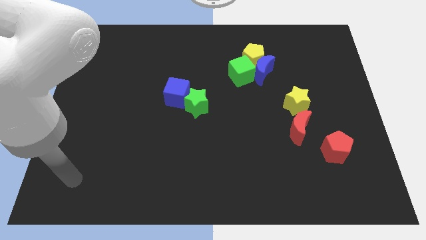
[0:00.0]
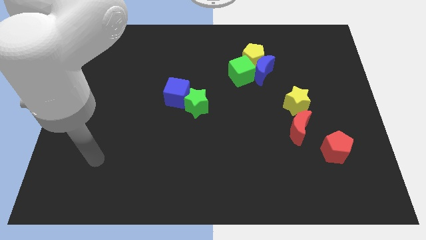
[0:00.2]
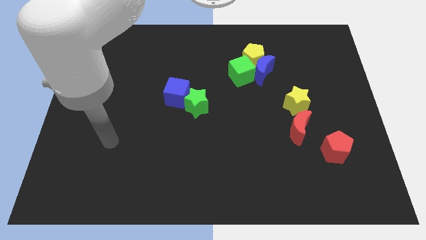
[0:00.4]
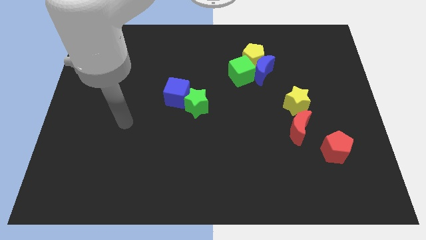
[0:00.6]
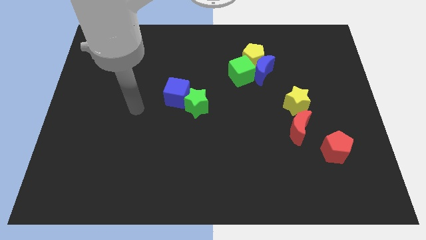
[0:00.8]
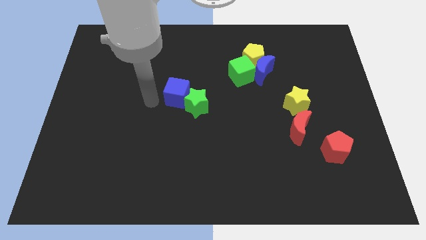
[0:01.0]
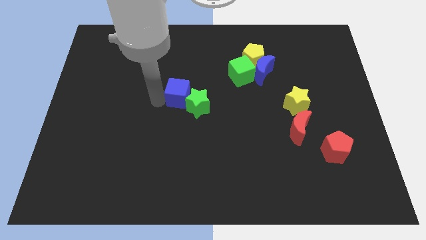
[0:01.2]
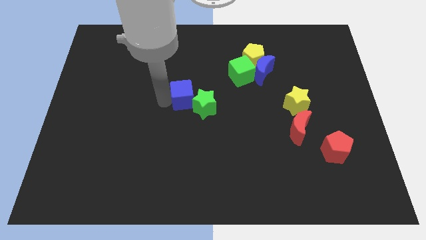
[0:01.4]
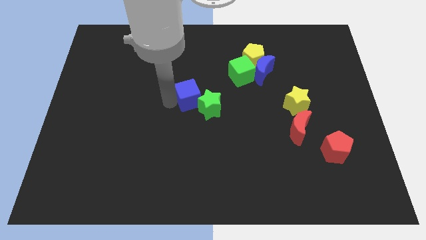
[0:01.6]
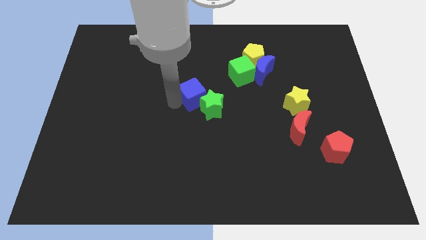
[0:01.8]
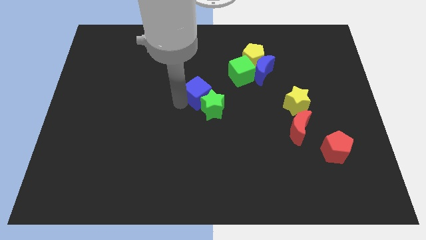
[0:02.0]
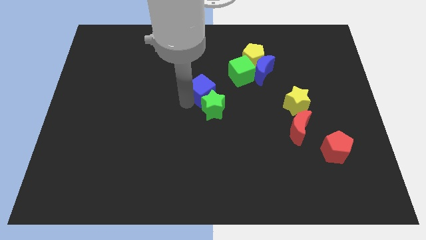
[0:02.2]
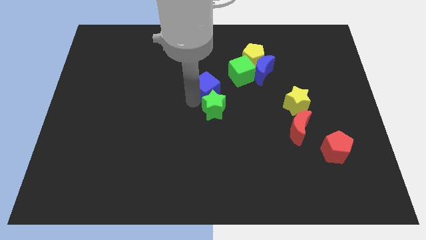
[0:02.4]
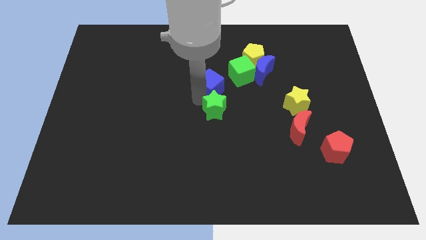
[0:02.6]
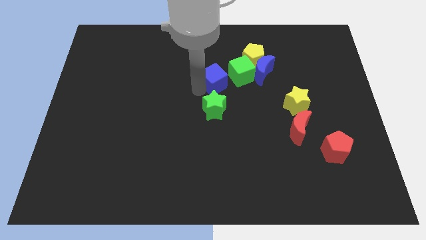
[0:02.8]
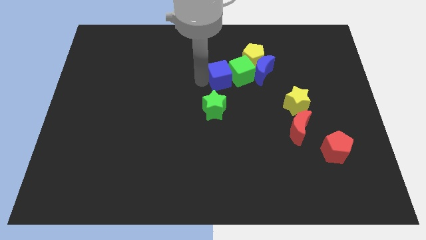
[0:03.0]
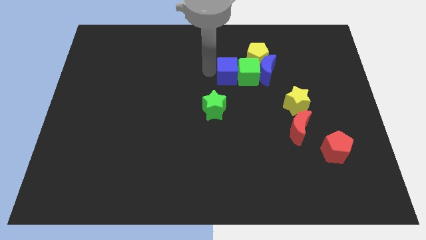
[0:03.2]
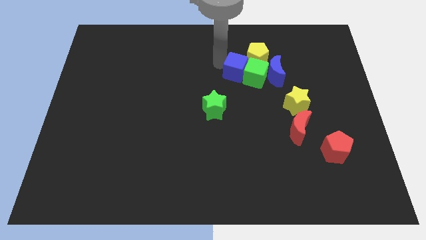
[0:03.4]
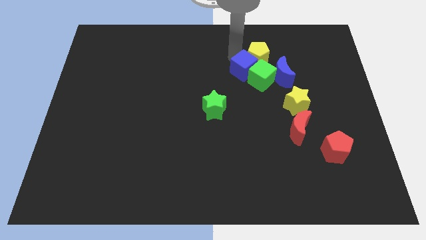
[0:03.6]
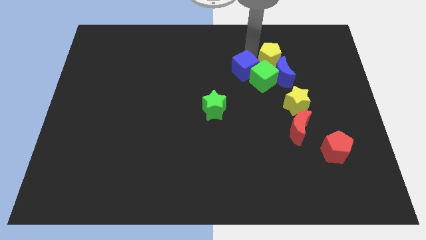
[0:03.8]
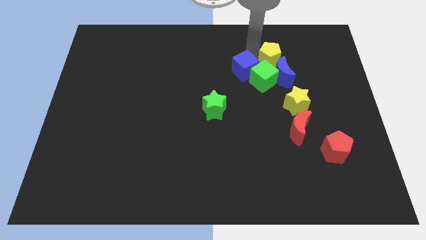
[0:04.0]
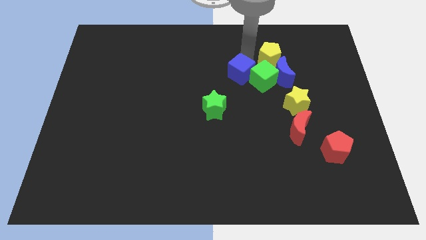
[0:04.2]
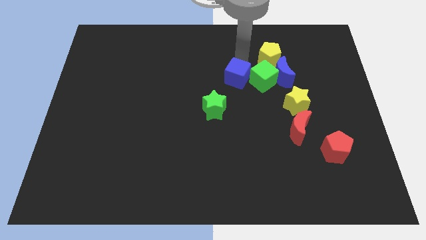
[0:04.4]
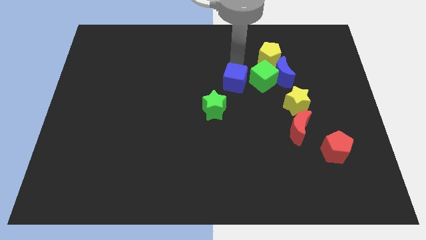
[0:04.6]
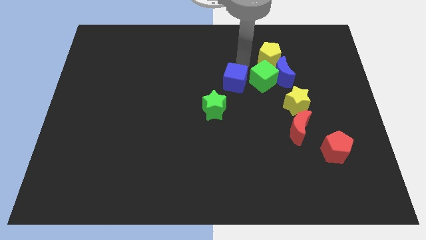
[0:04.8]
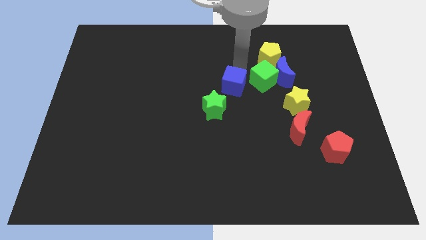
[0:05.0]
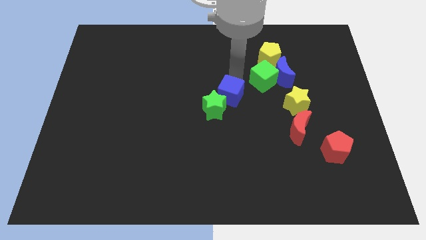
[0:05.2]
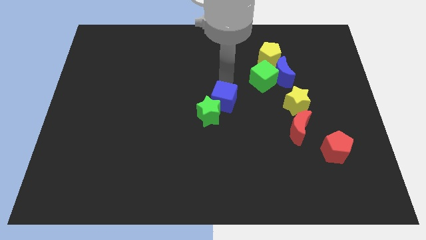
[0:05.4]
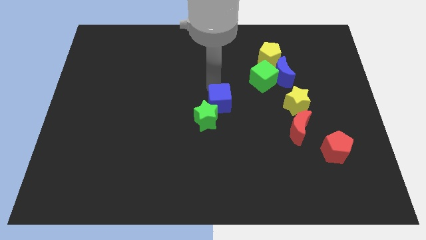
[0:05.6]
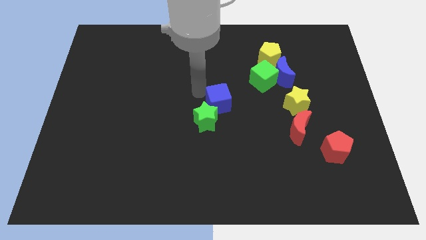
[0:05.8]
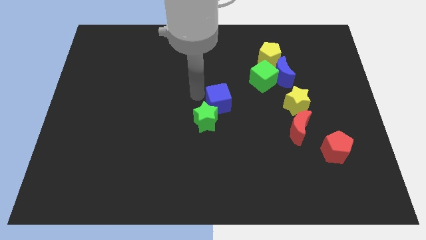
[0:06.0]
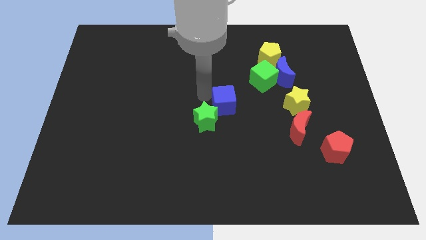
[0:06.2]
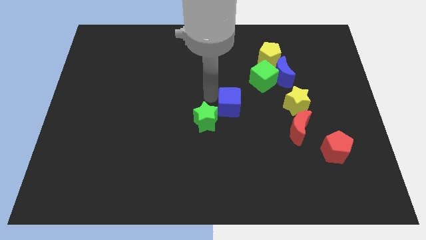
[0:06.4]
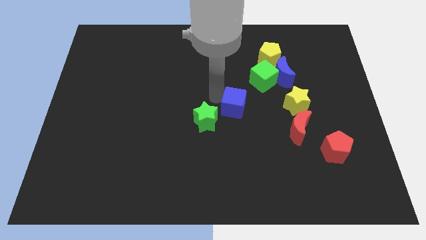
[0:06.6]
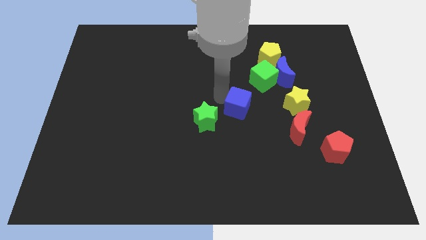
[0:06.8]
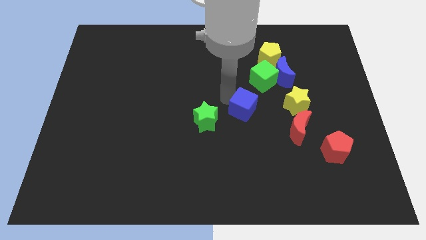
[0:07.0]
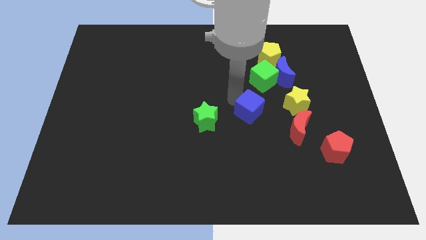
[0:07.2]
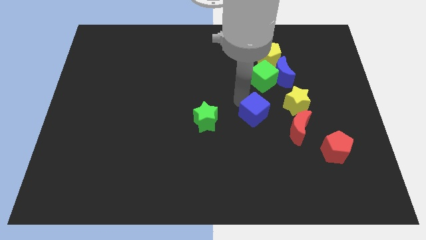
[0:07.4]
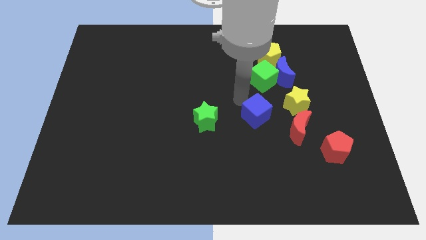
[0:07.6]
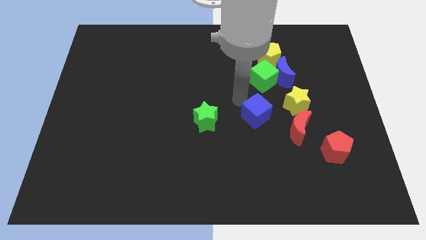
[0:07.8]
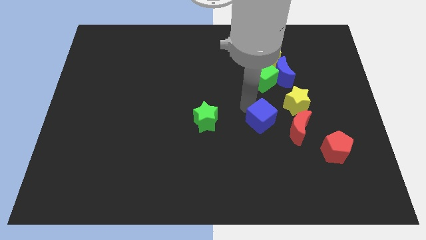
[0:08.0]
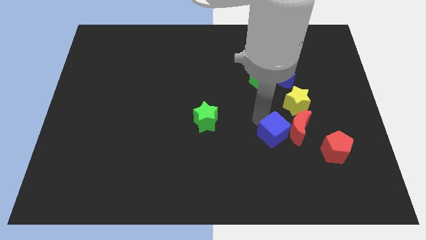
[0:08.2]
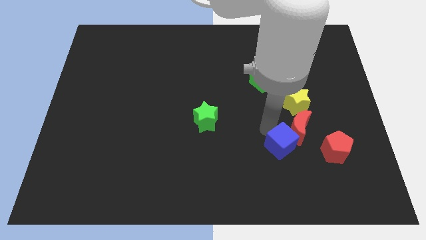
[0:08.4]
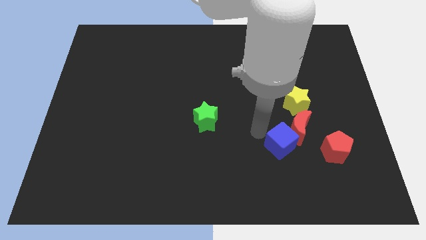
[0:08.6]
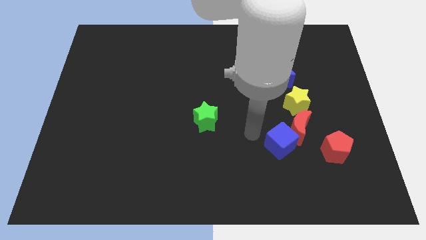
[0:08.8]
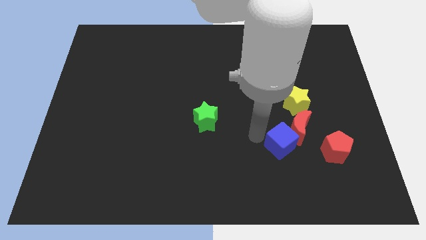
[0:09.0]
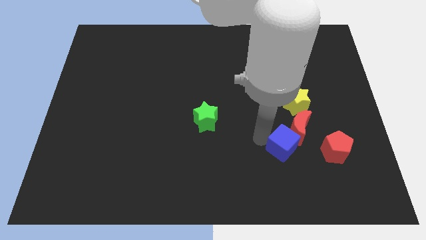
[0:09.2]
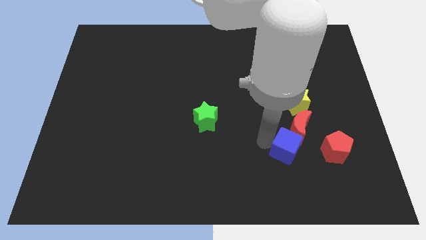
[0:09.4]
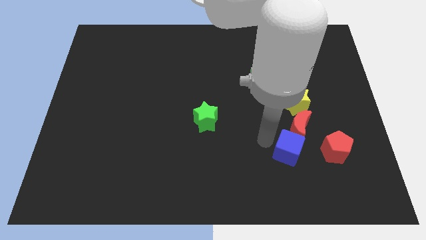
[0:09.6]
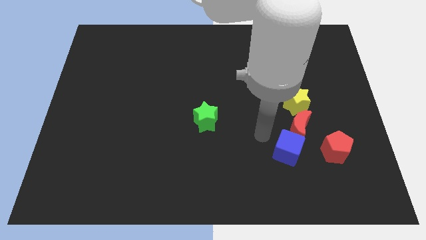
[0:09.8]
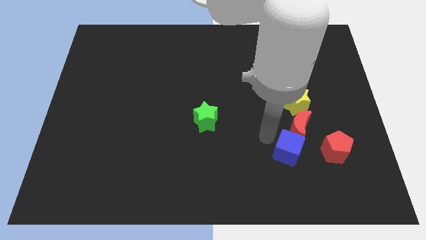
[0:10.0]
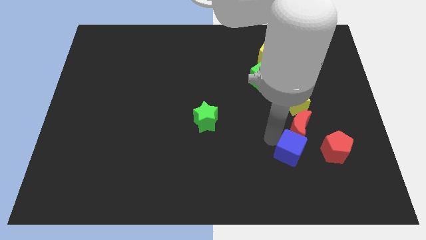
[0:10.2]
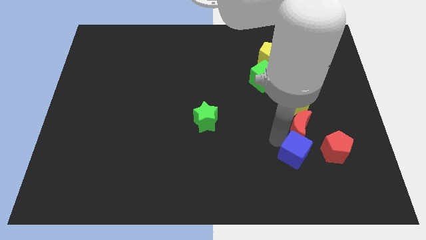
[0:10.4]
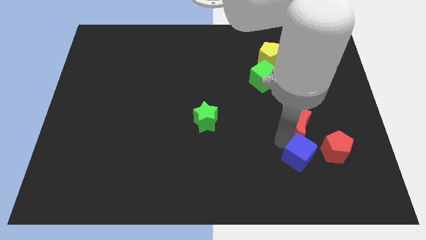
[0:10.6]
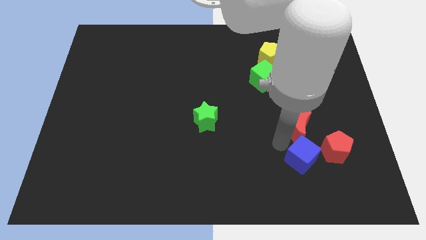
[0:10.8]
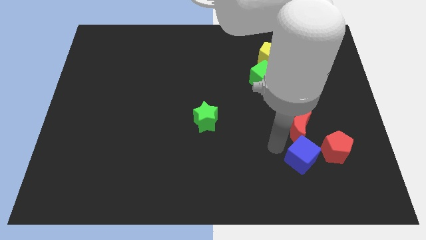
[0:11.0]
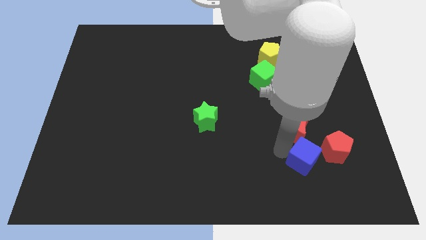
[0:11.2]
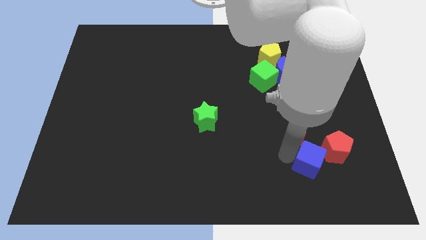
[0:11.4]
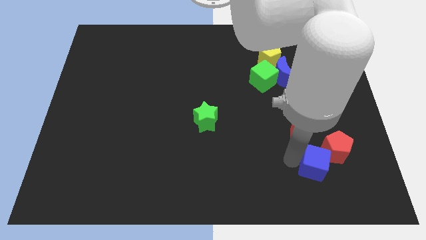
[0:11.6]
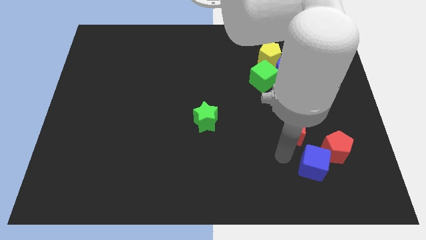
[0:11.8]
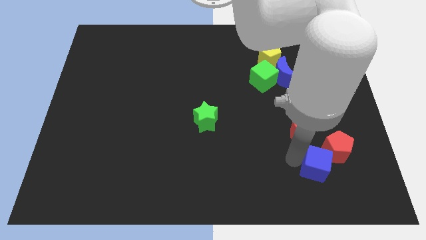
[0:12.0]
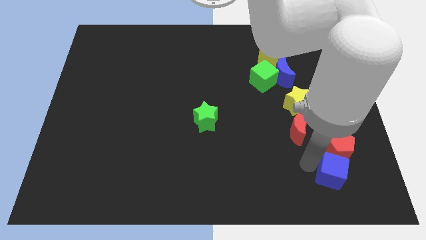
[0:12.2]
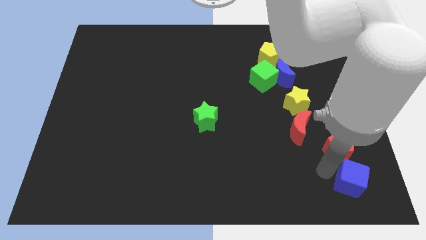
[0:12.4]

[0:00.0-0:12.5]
push the blue cube to the bottom right corner

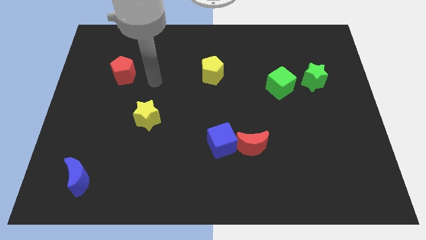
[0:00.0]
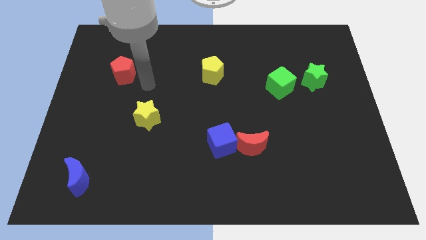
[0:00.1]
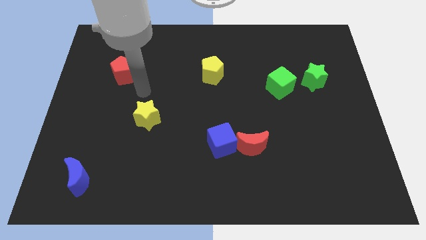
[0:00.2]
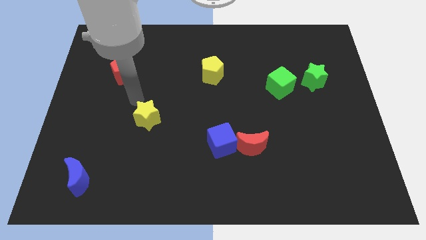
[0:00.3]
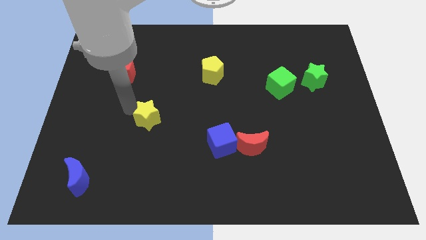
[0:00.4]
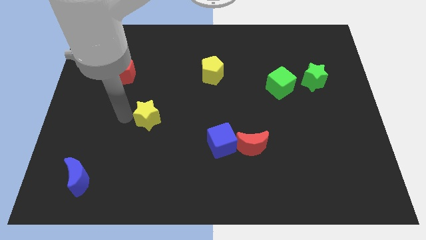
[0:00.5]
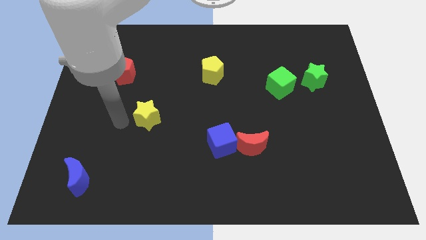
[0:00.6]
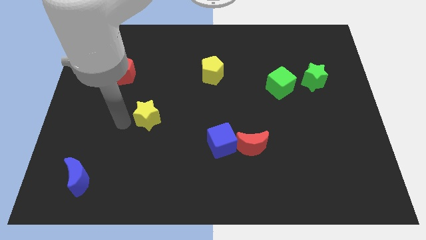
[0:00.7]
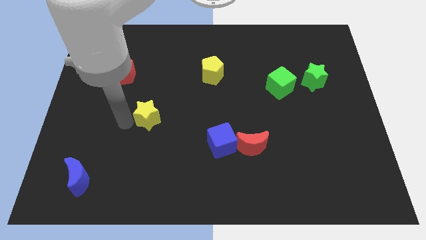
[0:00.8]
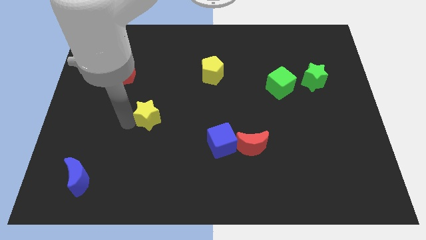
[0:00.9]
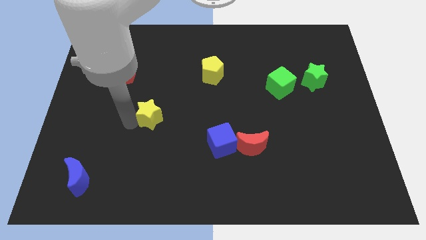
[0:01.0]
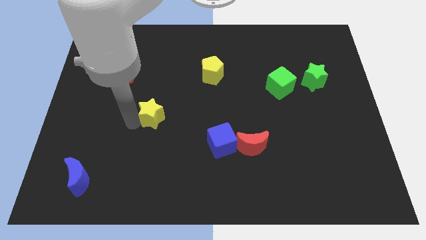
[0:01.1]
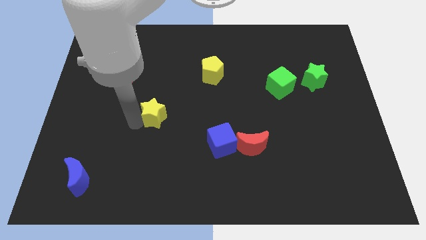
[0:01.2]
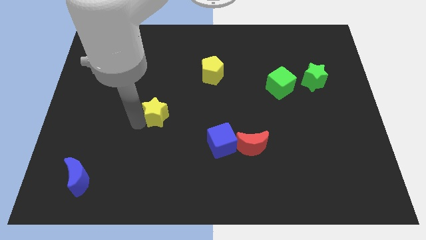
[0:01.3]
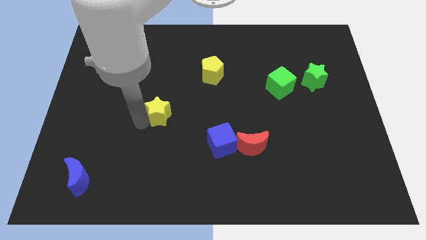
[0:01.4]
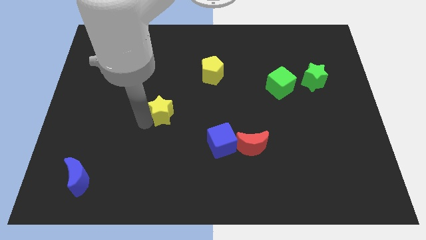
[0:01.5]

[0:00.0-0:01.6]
move the yellow star to the center of the board
